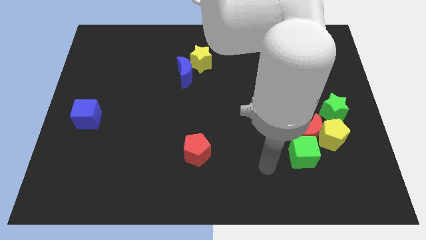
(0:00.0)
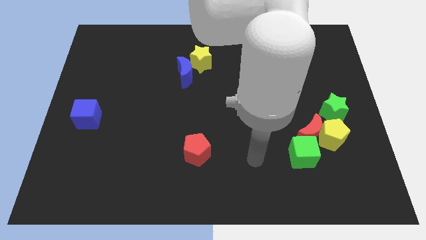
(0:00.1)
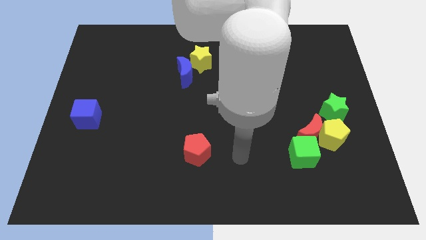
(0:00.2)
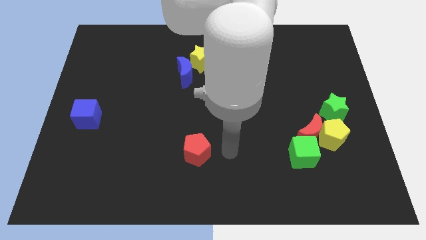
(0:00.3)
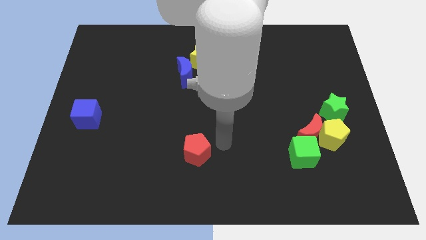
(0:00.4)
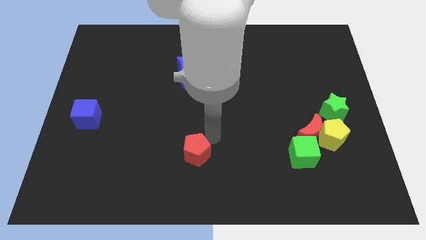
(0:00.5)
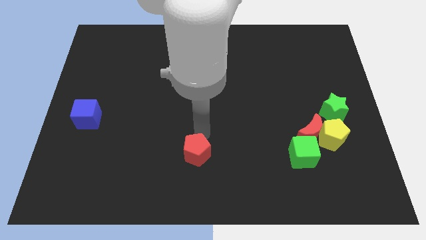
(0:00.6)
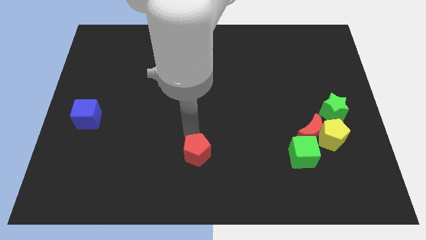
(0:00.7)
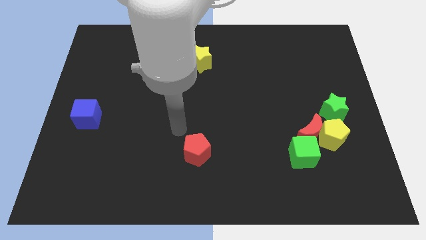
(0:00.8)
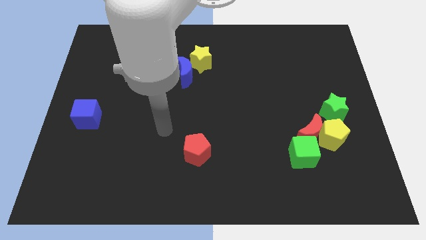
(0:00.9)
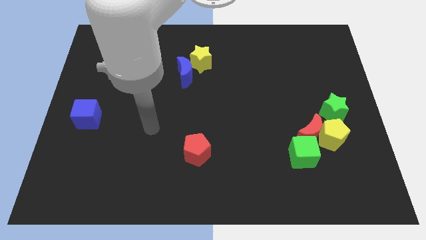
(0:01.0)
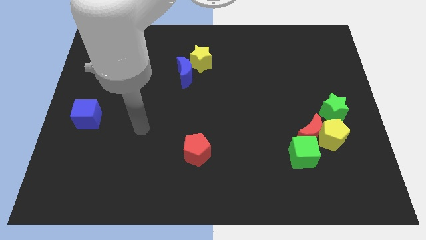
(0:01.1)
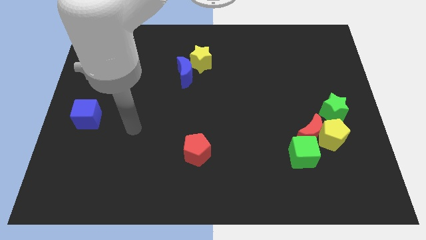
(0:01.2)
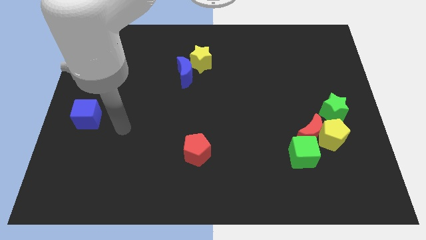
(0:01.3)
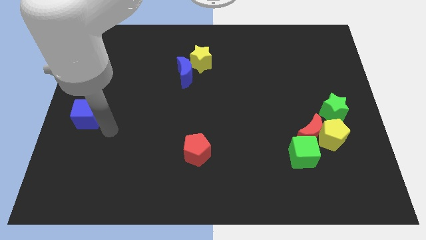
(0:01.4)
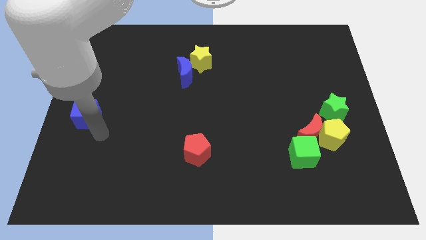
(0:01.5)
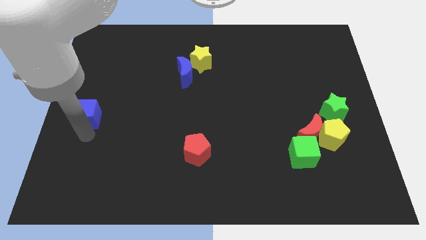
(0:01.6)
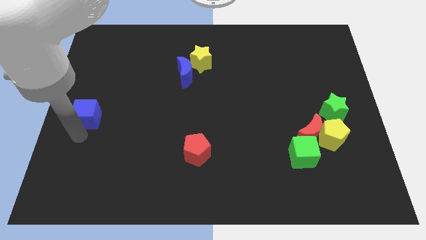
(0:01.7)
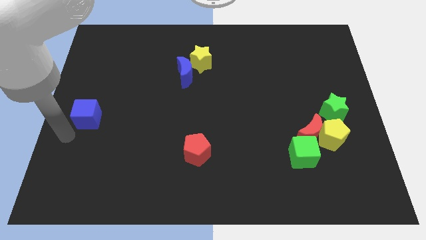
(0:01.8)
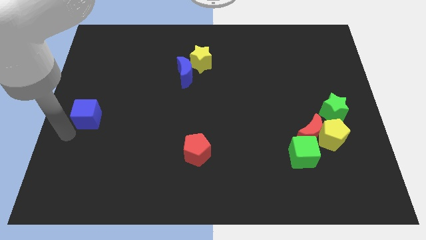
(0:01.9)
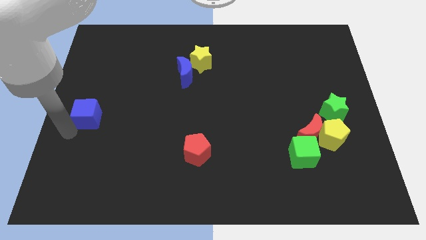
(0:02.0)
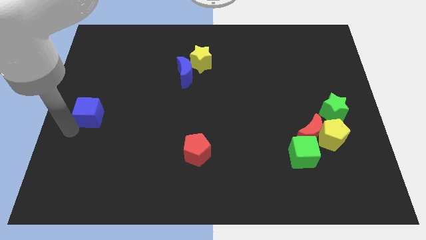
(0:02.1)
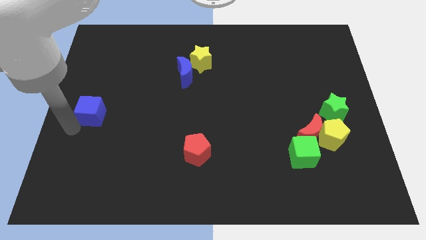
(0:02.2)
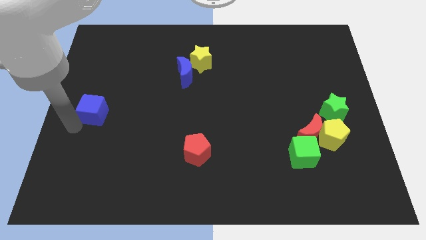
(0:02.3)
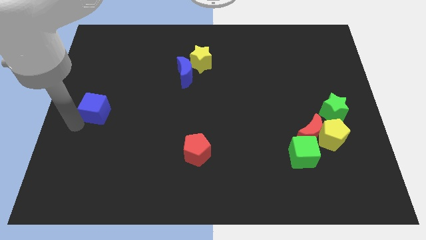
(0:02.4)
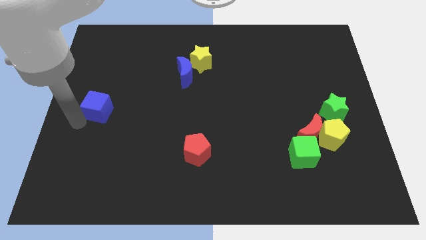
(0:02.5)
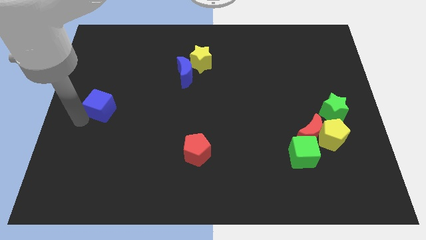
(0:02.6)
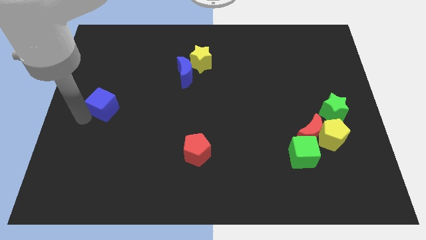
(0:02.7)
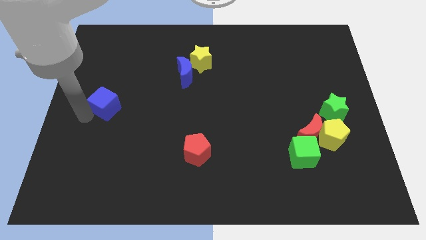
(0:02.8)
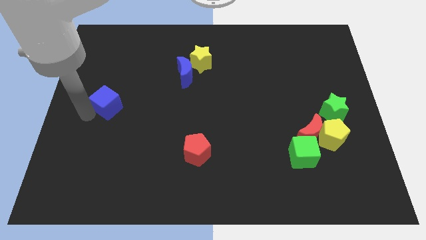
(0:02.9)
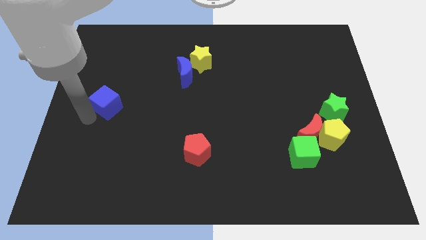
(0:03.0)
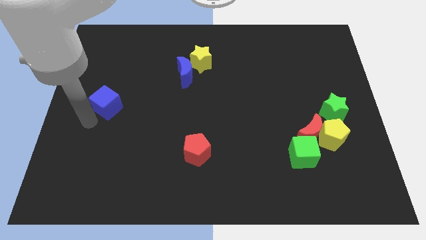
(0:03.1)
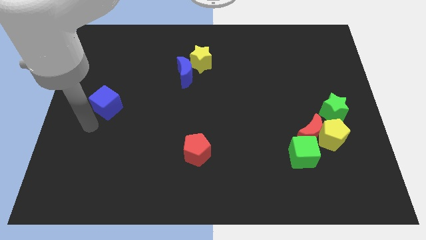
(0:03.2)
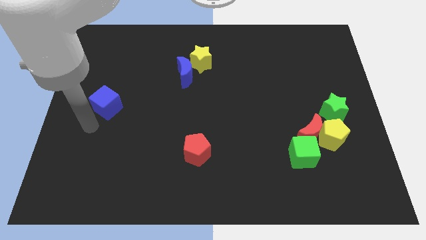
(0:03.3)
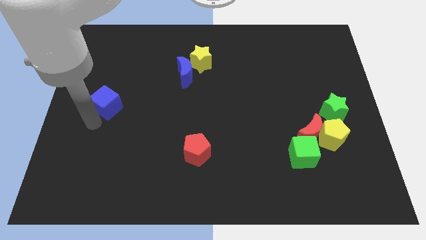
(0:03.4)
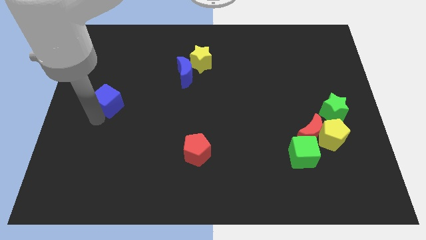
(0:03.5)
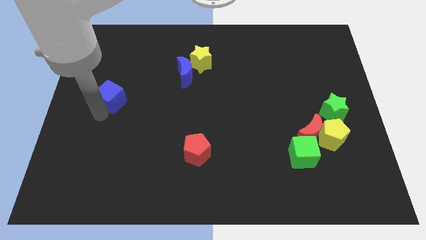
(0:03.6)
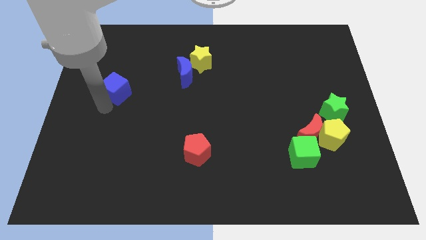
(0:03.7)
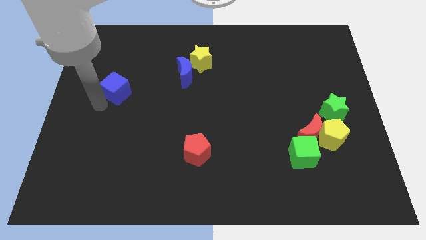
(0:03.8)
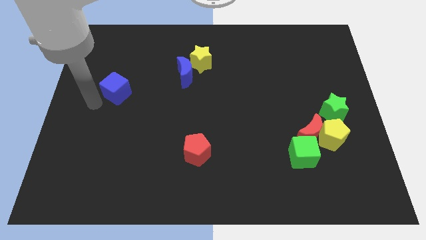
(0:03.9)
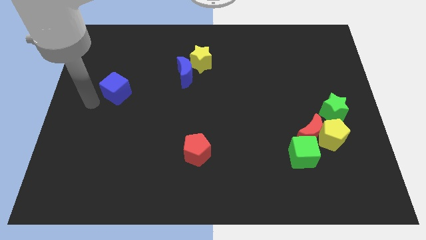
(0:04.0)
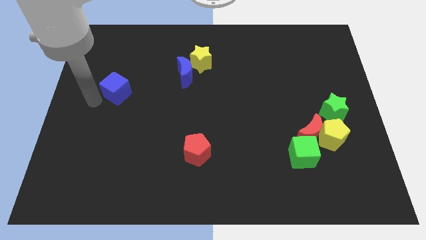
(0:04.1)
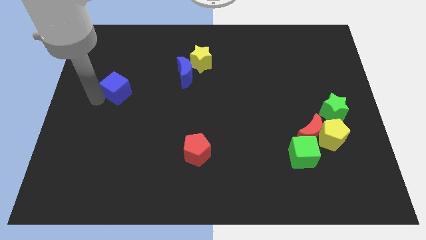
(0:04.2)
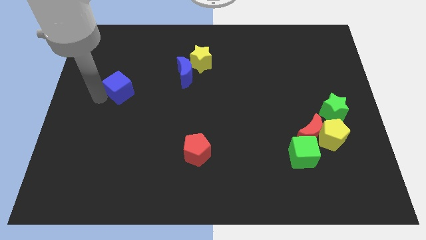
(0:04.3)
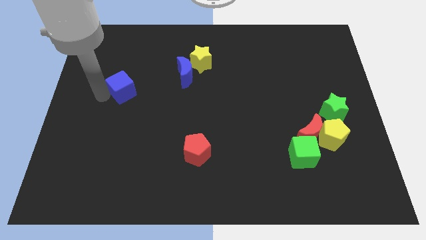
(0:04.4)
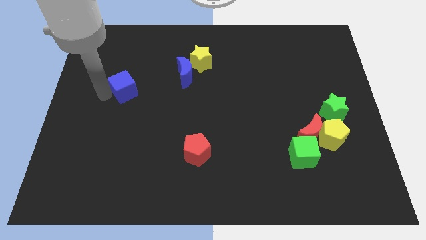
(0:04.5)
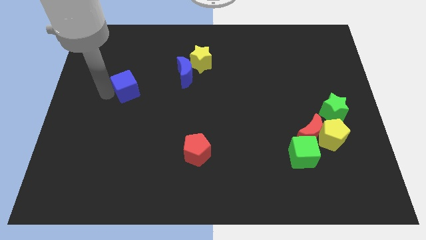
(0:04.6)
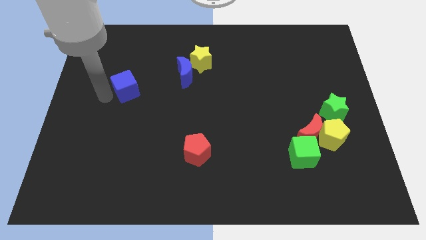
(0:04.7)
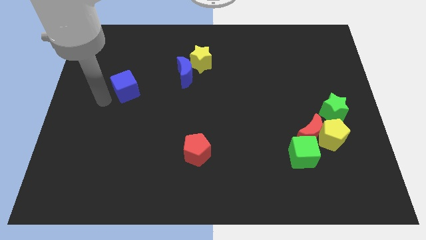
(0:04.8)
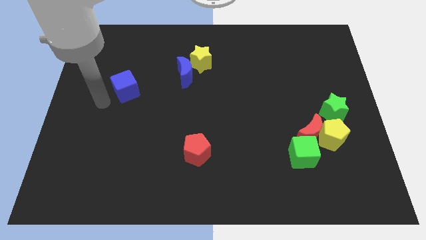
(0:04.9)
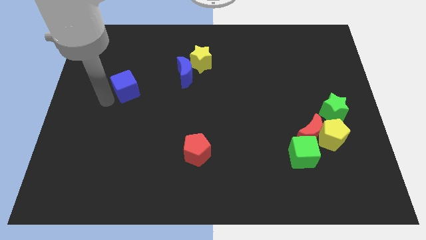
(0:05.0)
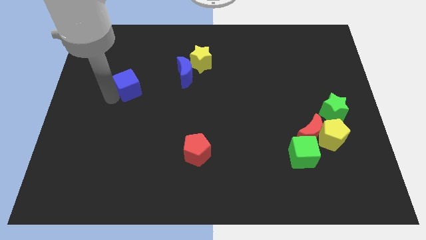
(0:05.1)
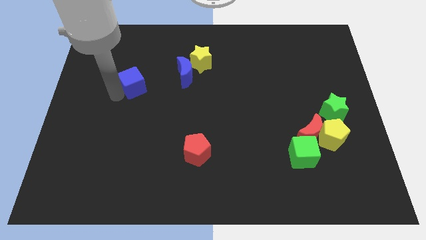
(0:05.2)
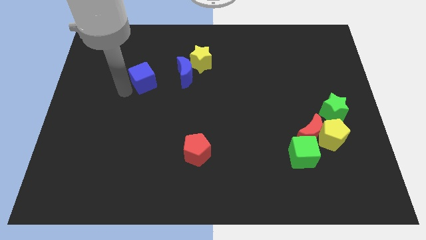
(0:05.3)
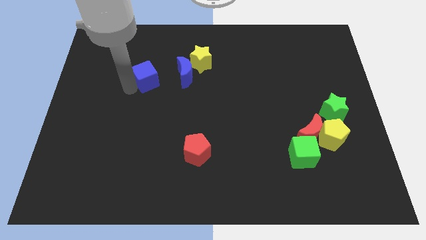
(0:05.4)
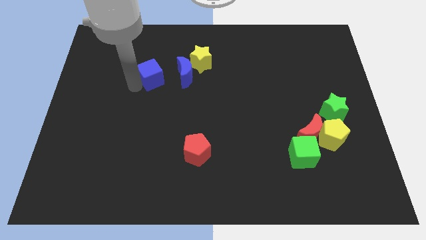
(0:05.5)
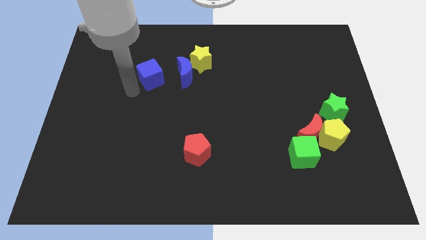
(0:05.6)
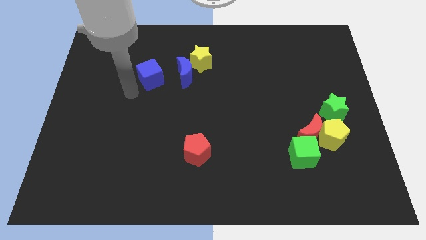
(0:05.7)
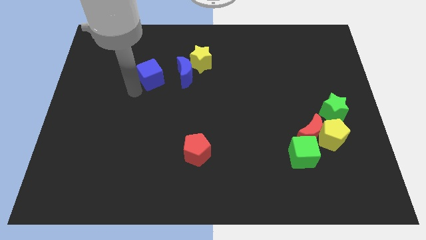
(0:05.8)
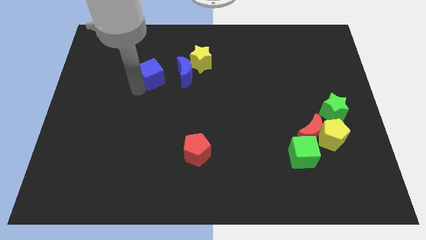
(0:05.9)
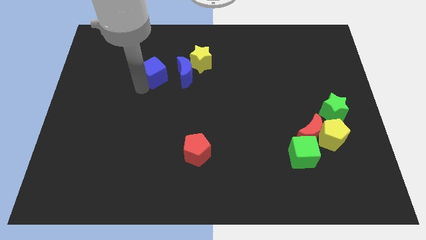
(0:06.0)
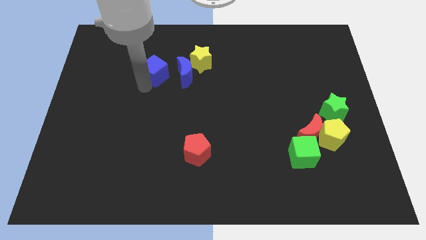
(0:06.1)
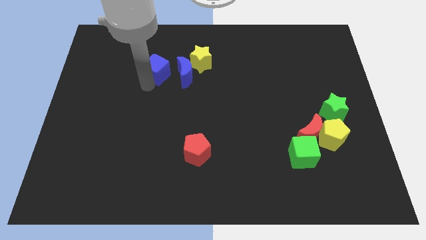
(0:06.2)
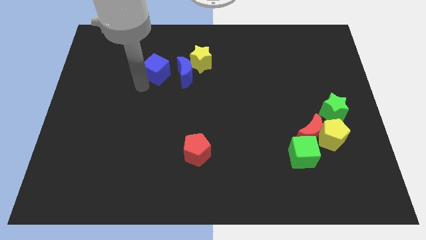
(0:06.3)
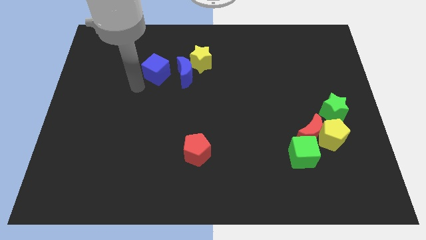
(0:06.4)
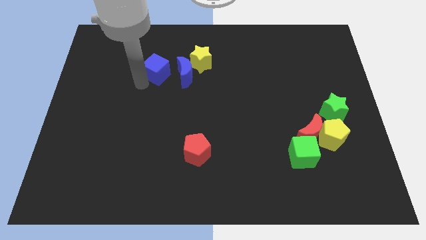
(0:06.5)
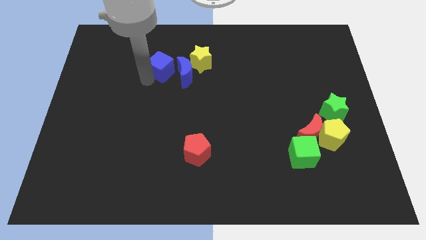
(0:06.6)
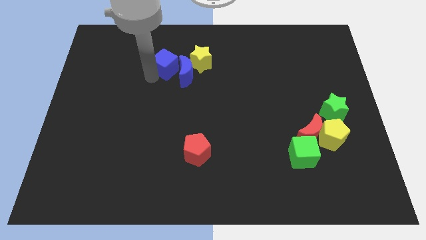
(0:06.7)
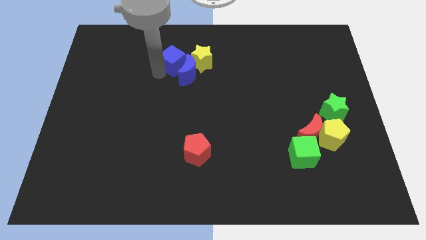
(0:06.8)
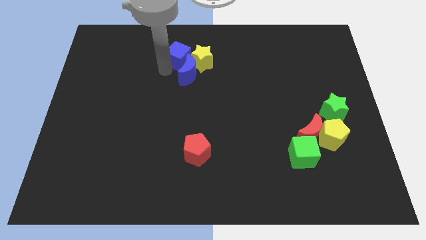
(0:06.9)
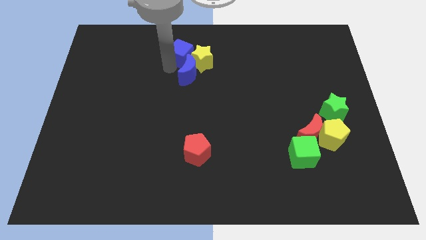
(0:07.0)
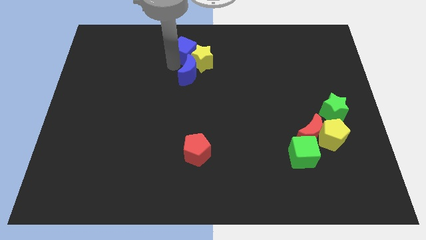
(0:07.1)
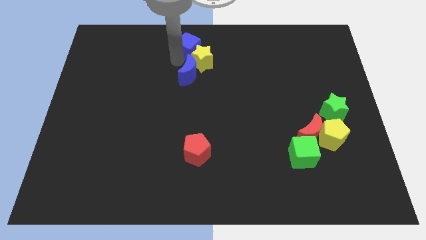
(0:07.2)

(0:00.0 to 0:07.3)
push the blue cube to the towards your base
